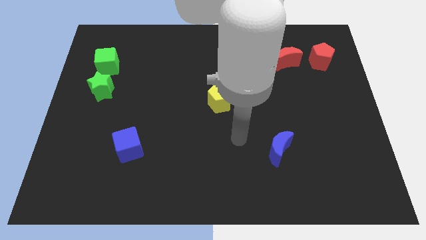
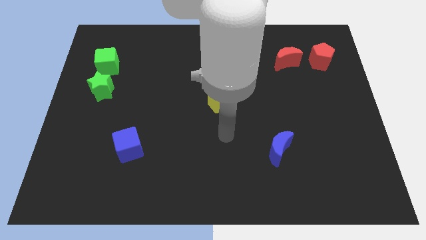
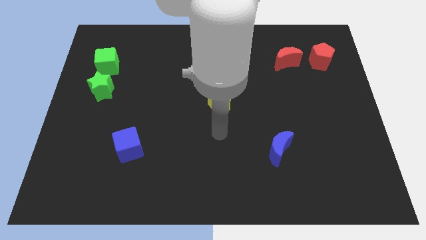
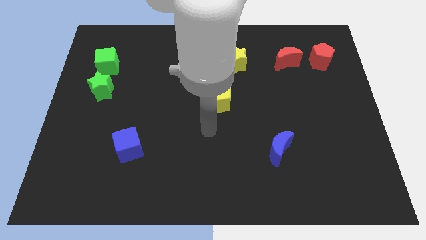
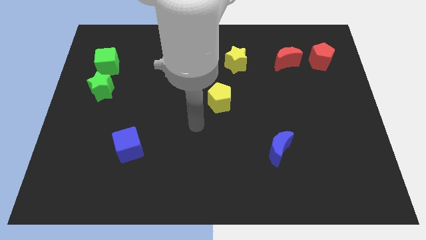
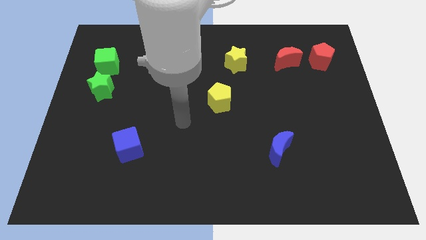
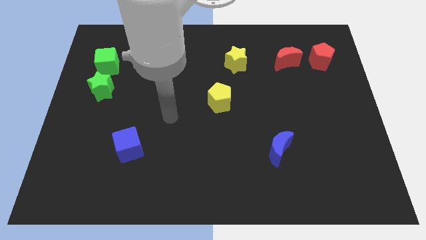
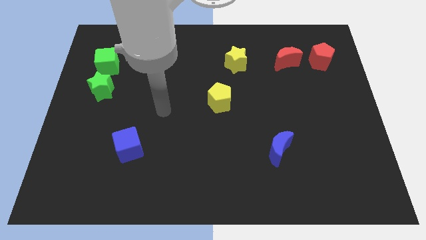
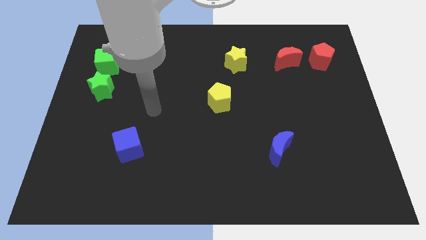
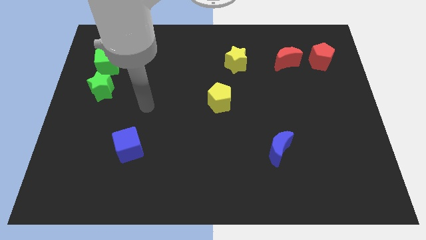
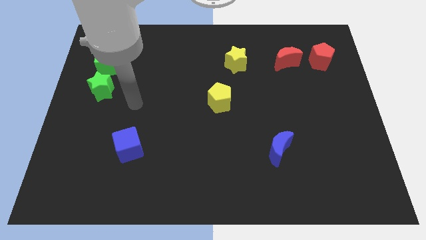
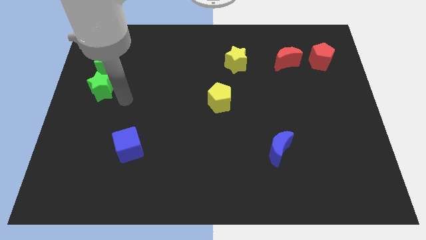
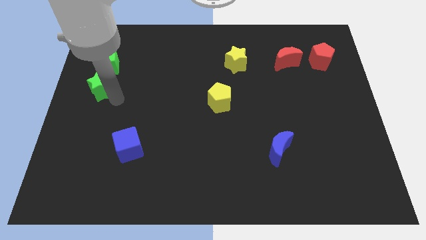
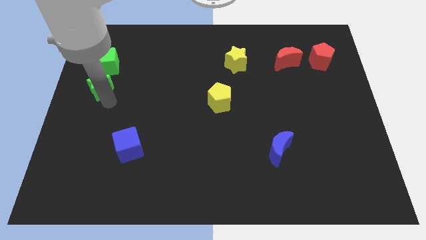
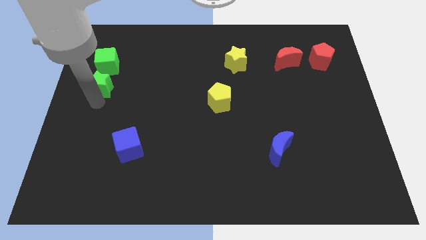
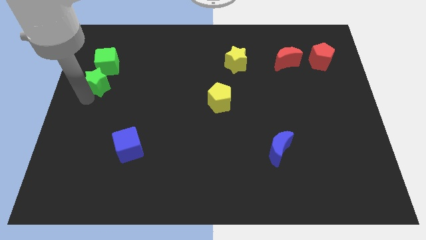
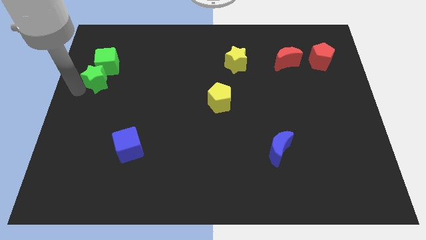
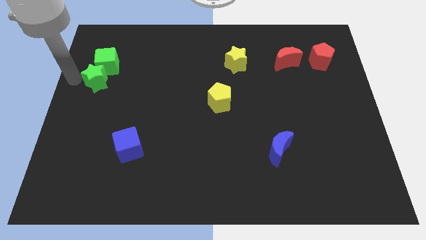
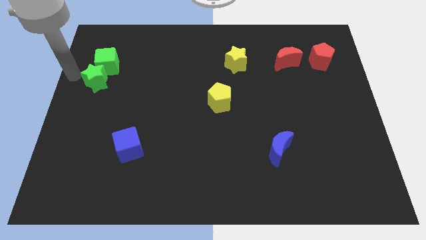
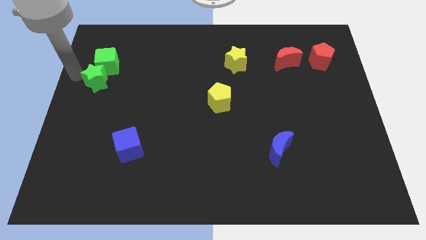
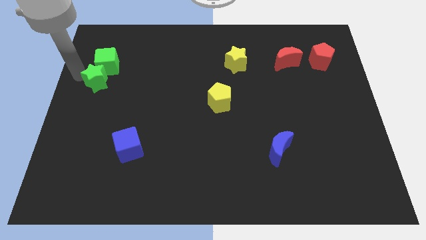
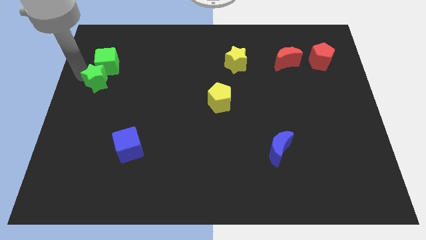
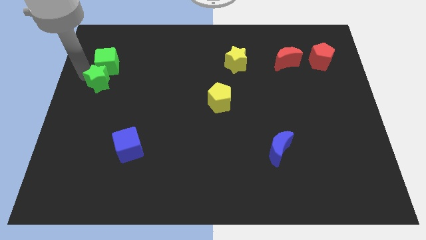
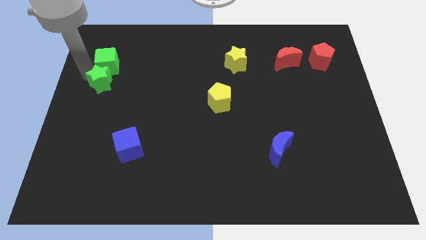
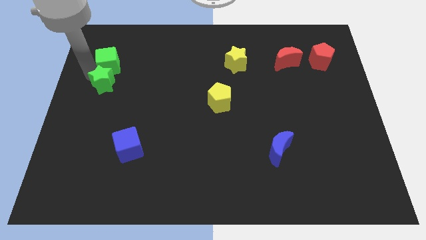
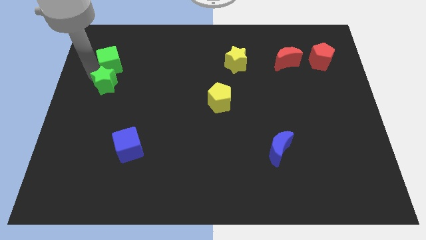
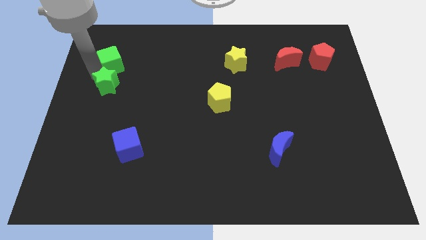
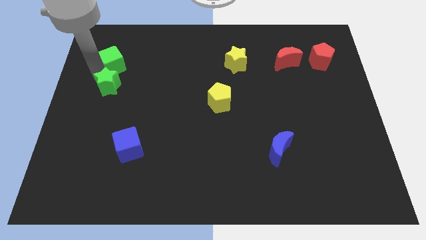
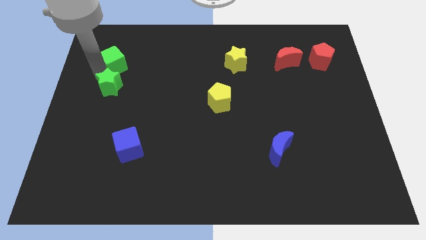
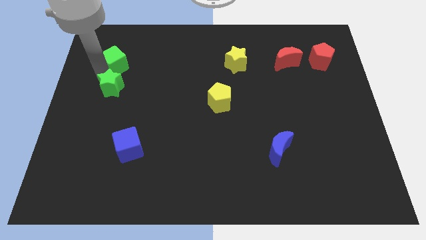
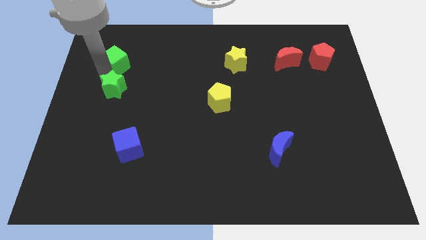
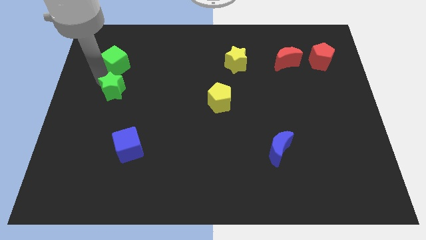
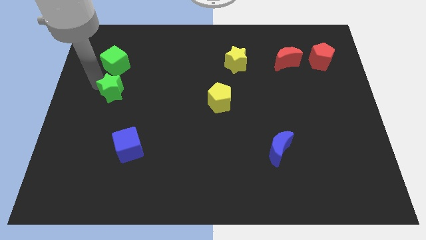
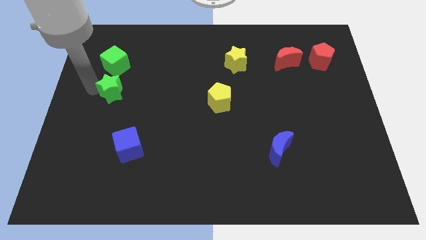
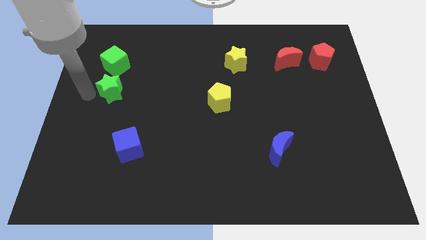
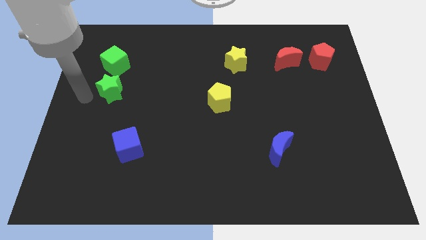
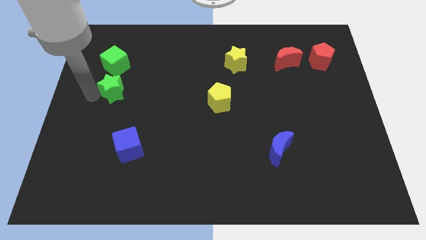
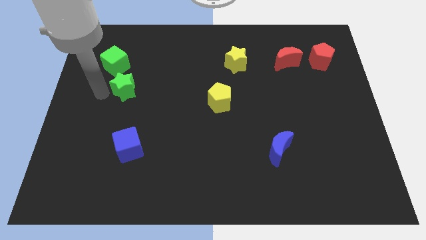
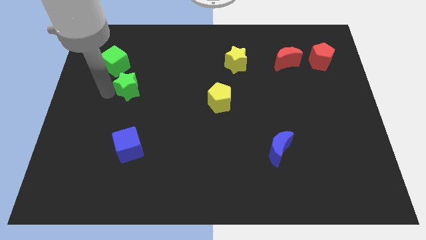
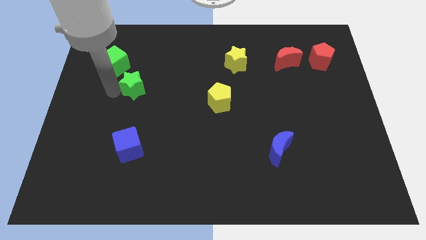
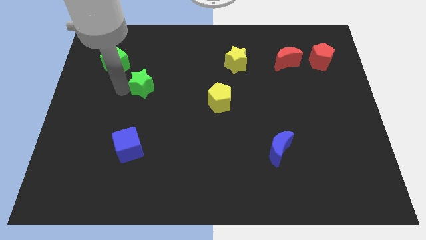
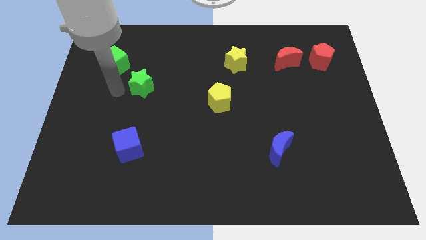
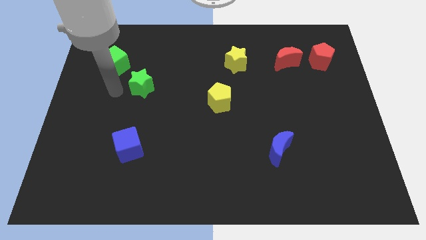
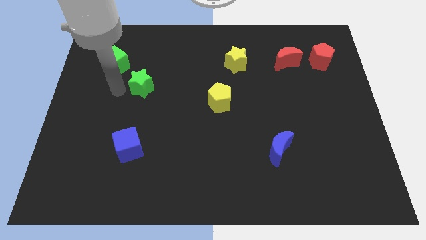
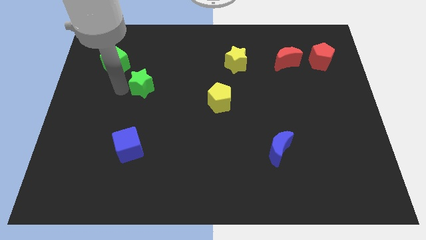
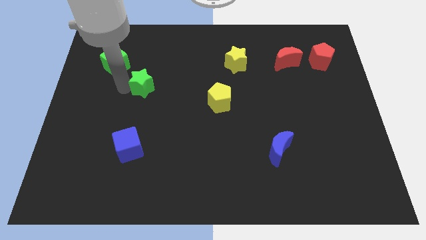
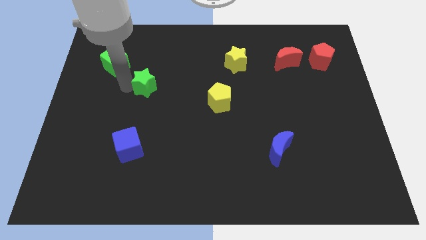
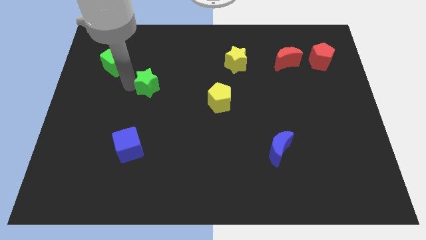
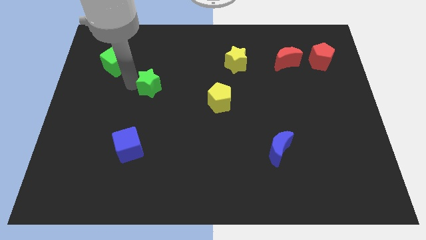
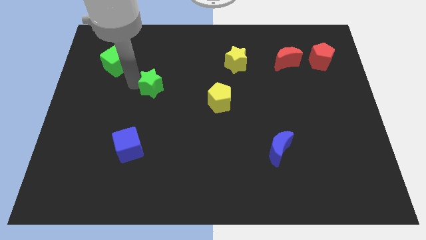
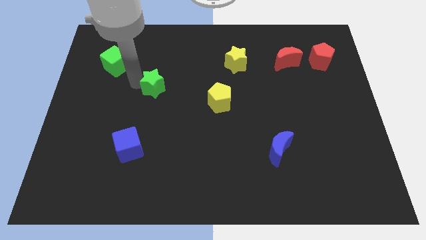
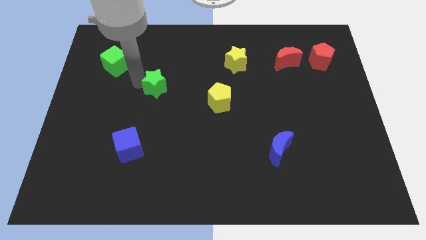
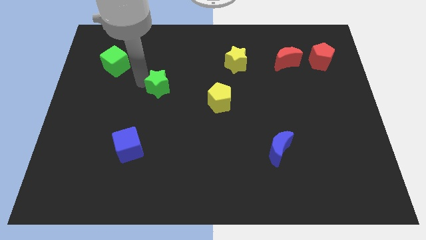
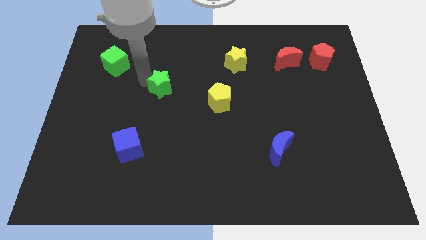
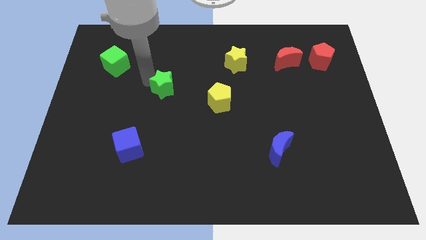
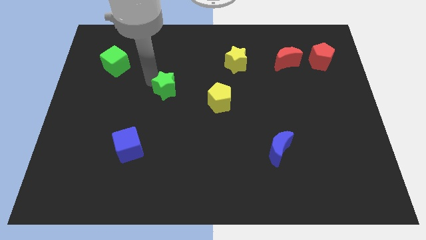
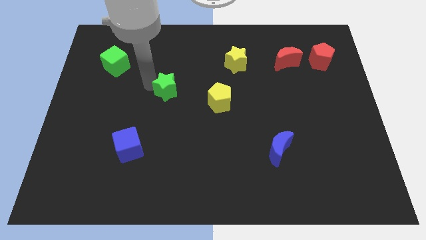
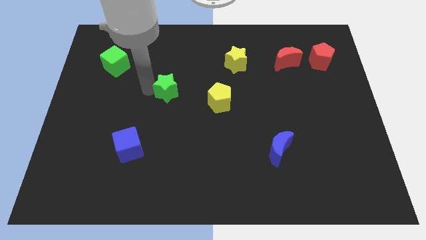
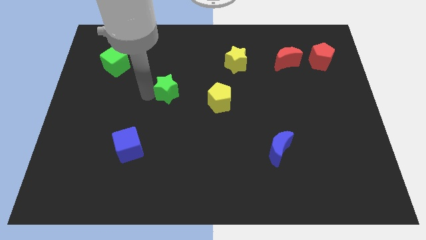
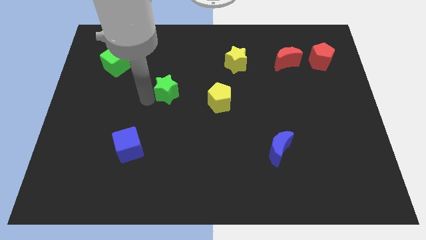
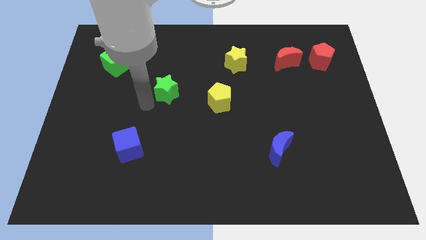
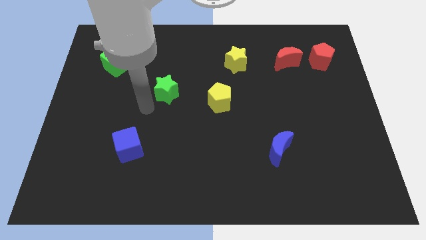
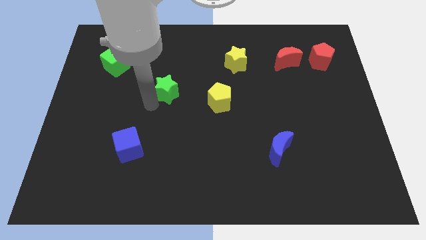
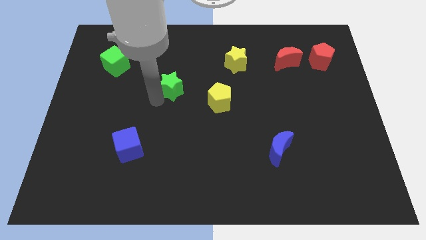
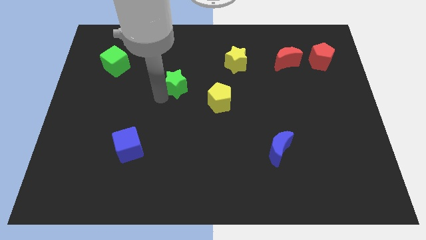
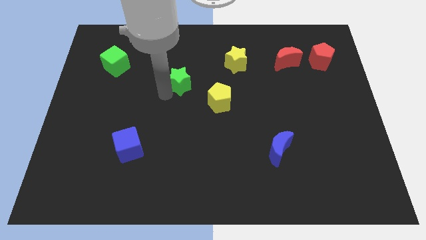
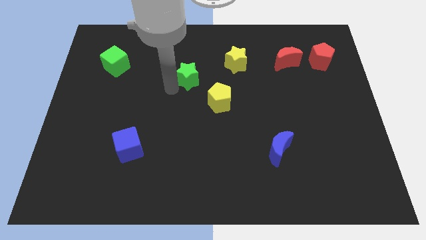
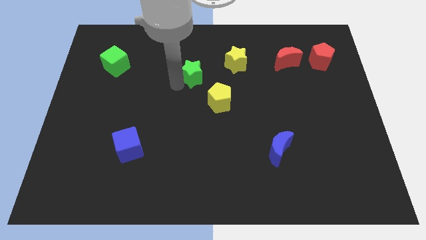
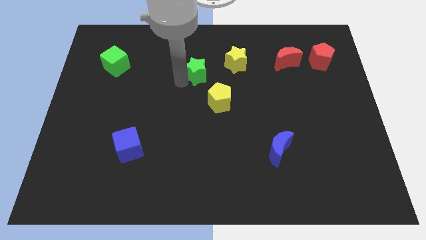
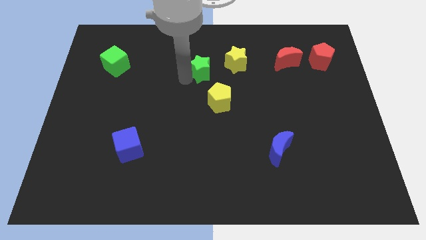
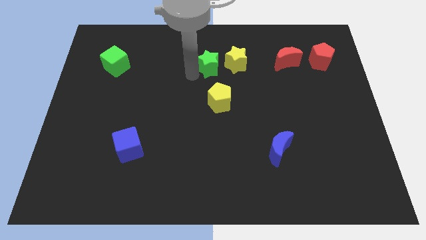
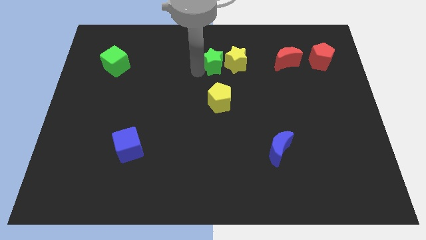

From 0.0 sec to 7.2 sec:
put the green star to the yellow star

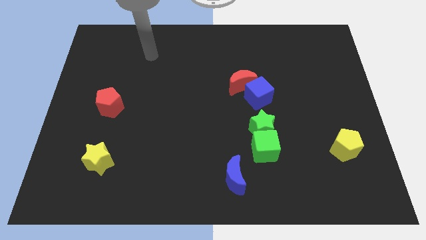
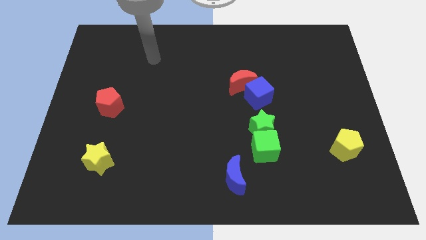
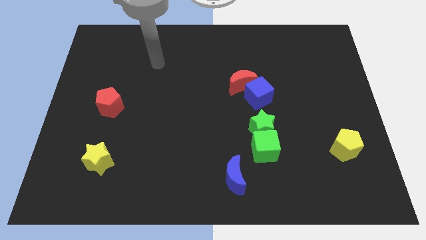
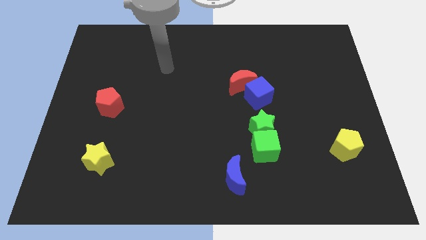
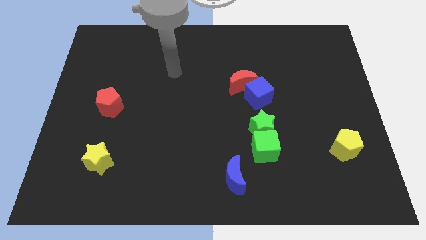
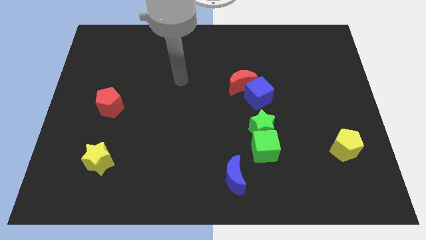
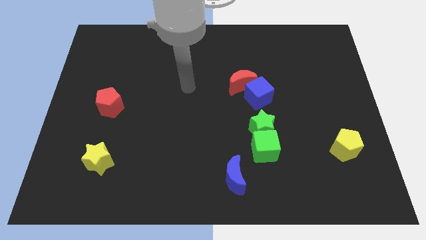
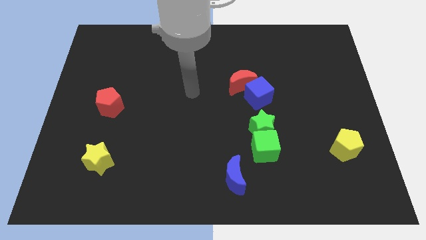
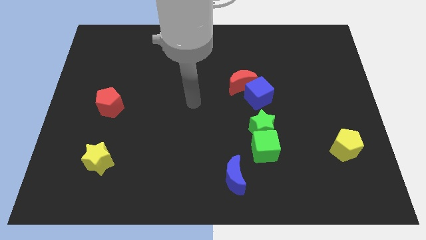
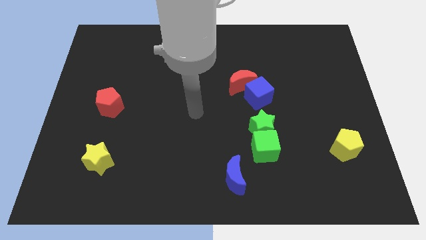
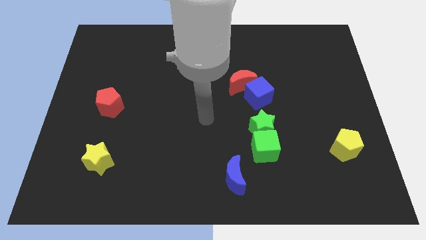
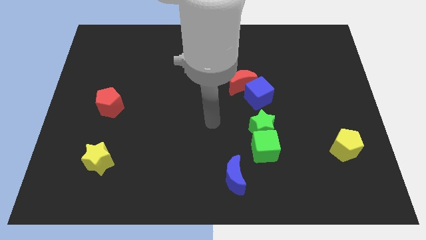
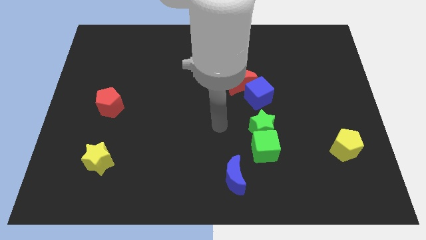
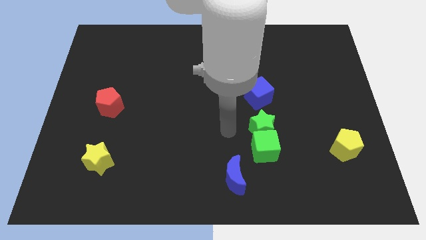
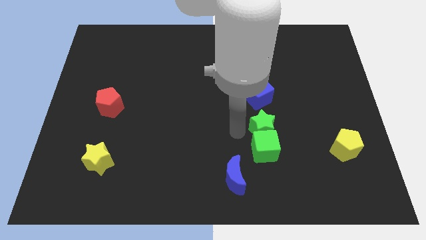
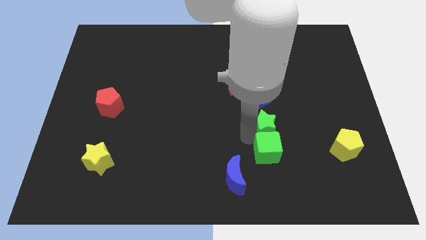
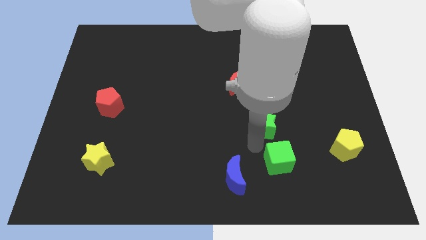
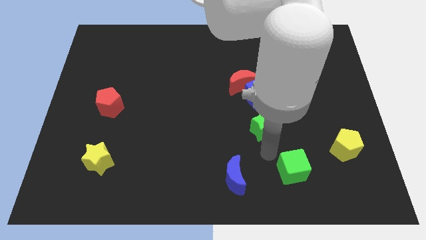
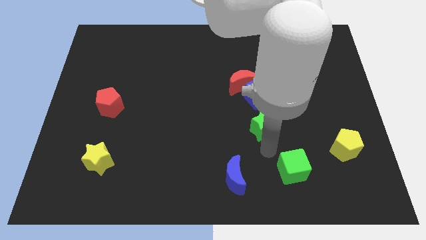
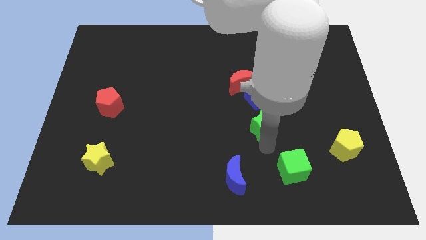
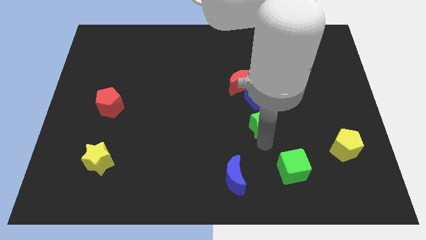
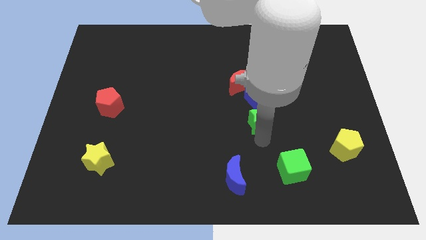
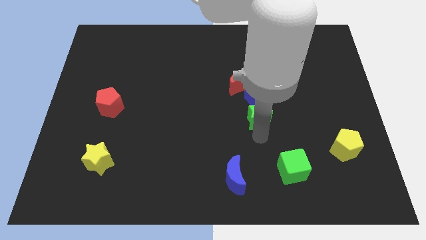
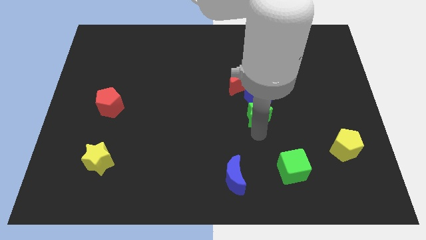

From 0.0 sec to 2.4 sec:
move the green star close to the blue cube
